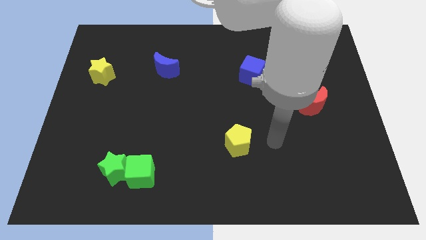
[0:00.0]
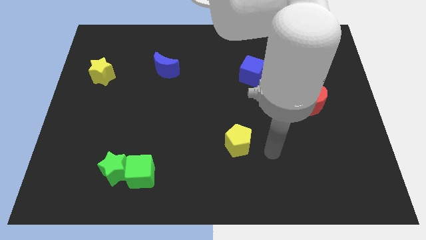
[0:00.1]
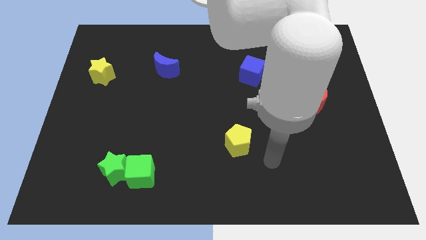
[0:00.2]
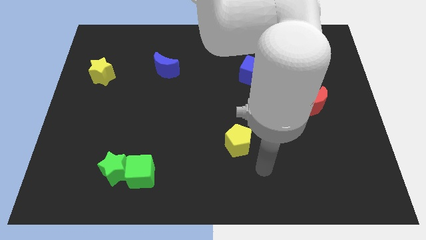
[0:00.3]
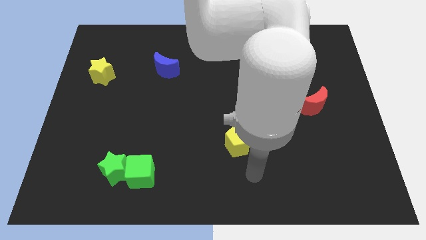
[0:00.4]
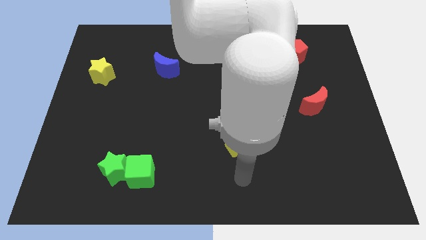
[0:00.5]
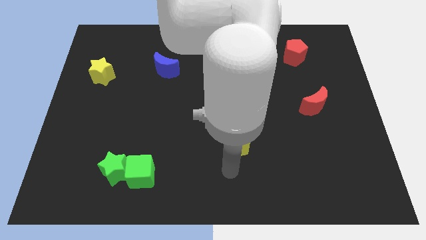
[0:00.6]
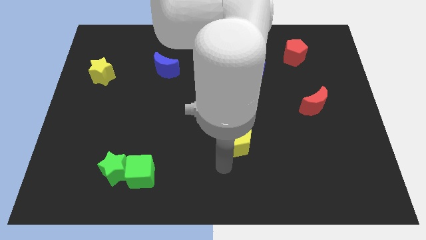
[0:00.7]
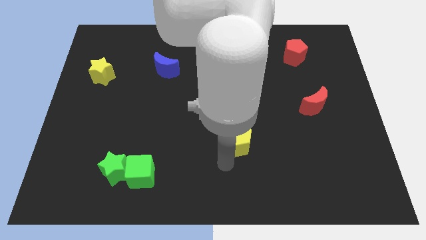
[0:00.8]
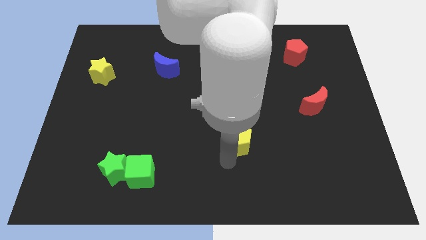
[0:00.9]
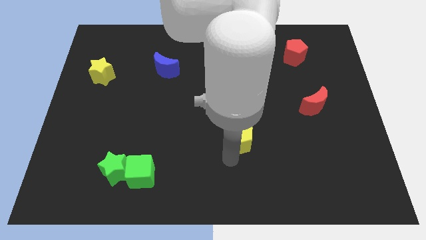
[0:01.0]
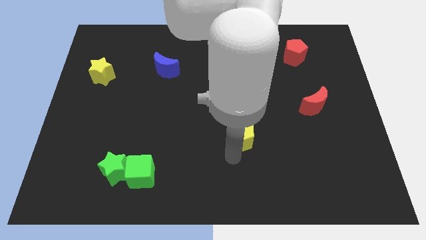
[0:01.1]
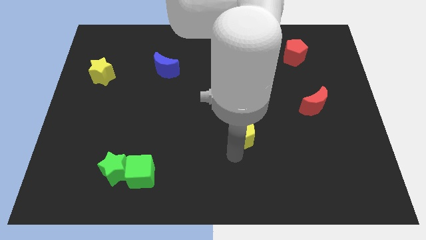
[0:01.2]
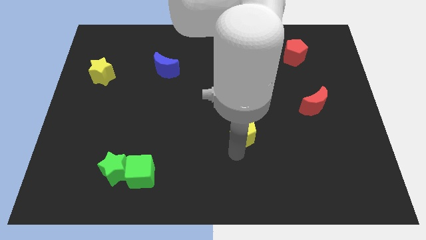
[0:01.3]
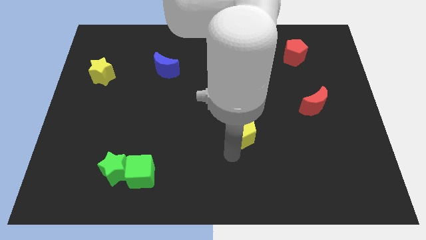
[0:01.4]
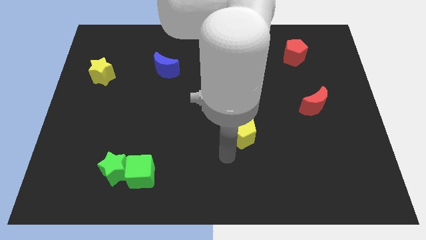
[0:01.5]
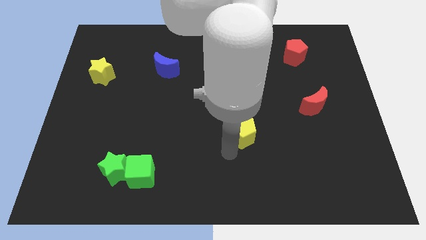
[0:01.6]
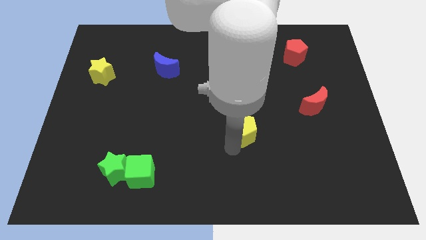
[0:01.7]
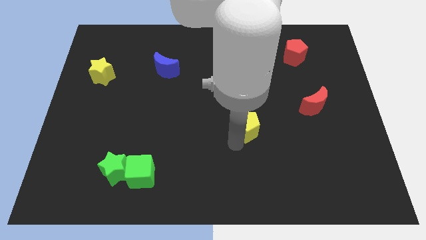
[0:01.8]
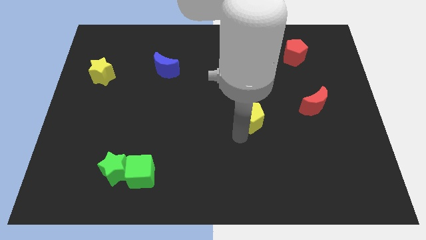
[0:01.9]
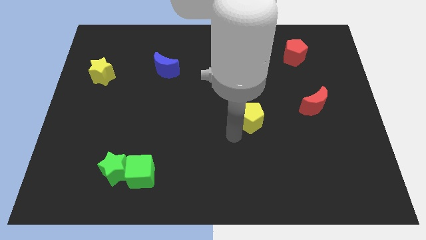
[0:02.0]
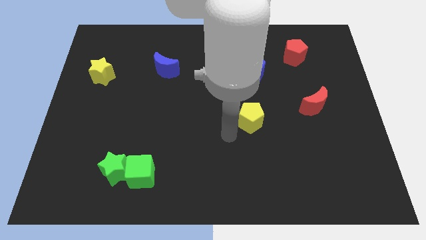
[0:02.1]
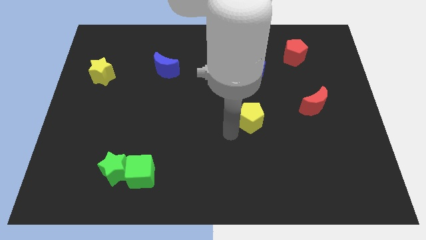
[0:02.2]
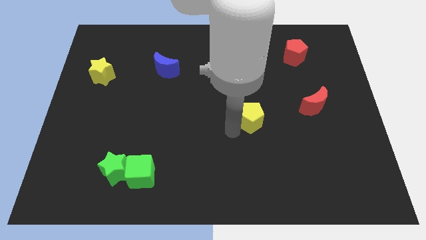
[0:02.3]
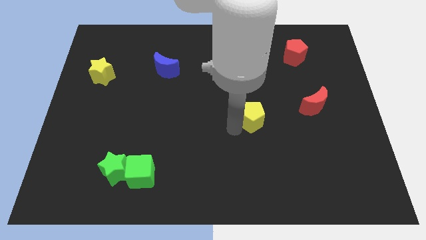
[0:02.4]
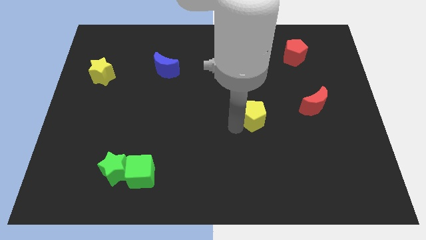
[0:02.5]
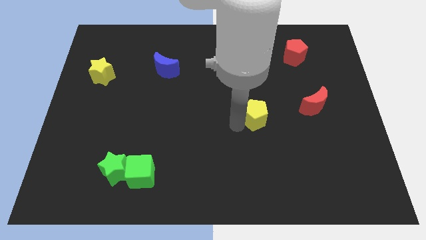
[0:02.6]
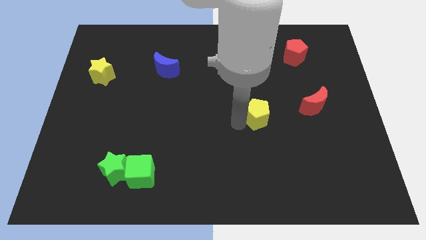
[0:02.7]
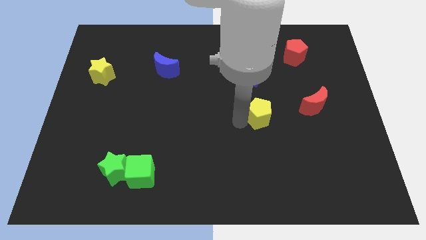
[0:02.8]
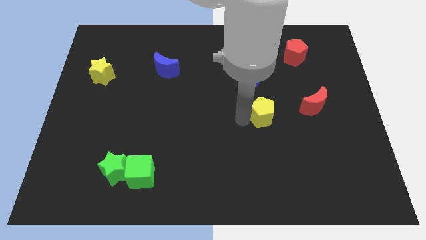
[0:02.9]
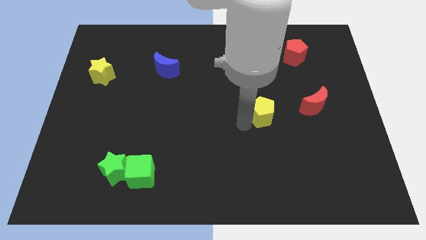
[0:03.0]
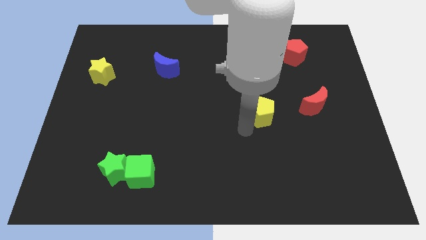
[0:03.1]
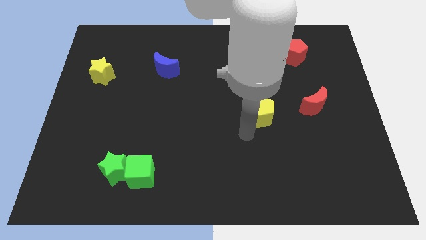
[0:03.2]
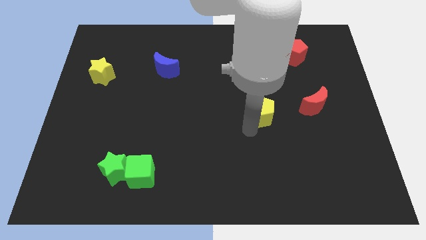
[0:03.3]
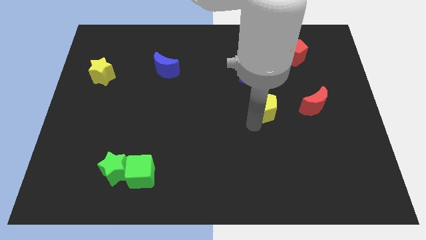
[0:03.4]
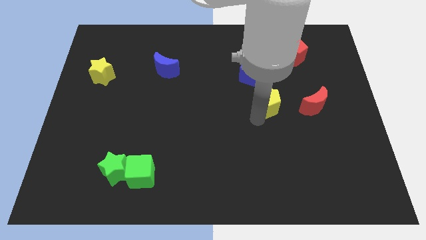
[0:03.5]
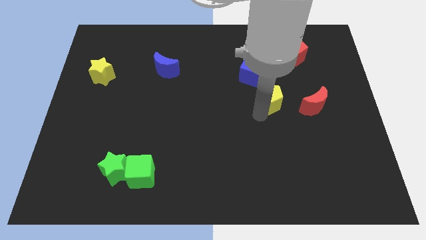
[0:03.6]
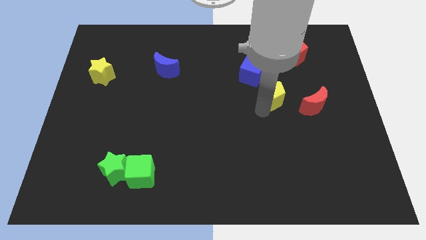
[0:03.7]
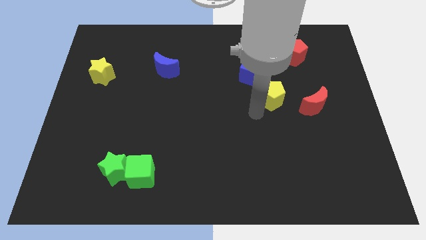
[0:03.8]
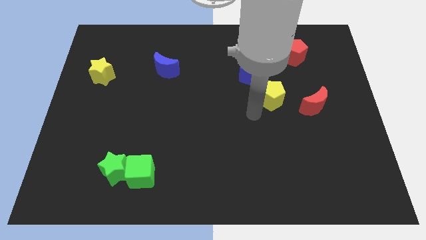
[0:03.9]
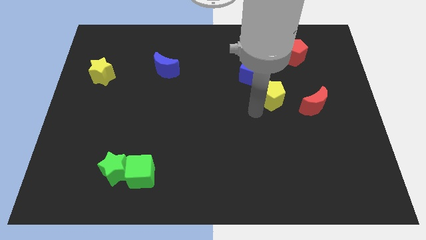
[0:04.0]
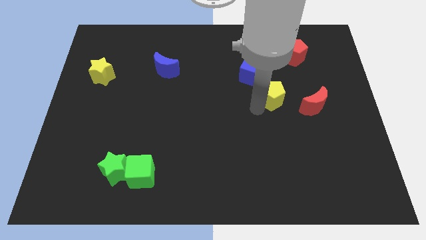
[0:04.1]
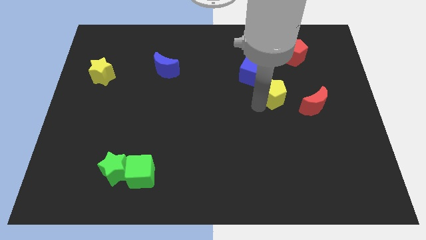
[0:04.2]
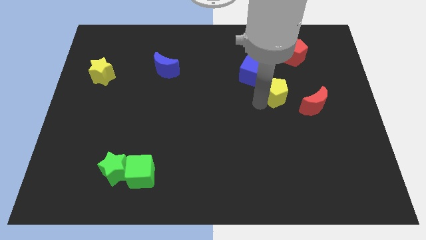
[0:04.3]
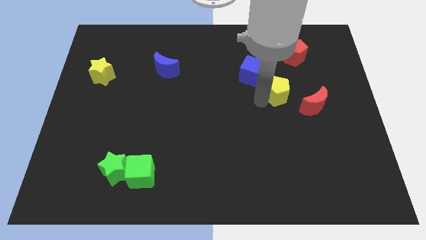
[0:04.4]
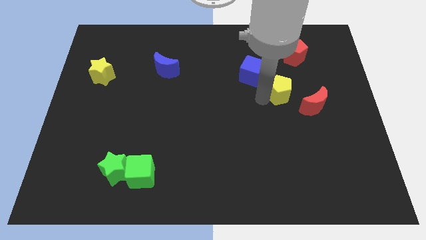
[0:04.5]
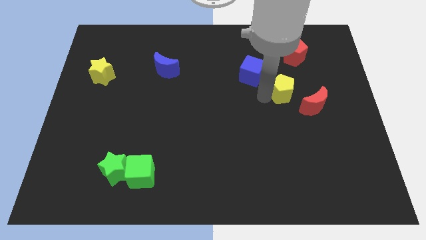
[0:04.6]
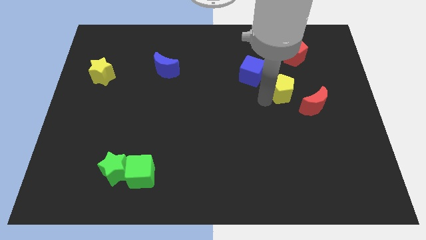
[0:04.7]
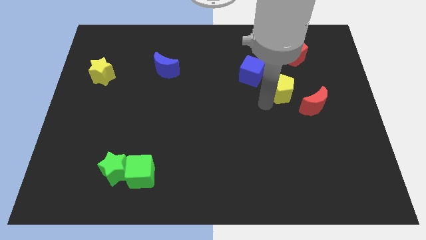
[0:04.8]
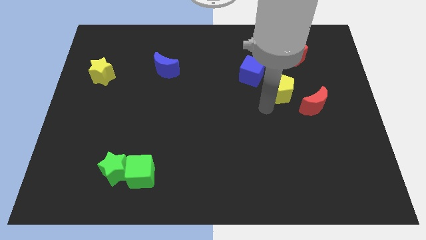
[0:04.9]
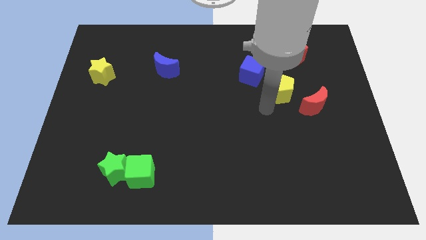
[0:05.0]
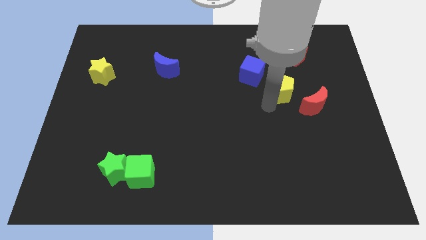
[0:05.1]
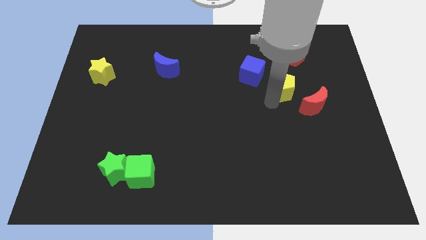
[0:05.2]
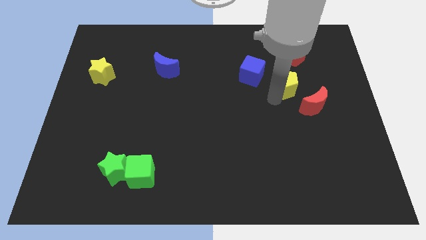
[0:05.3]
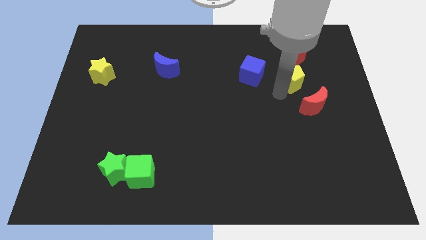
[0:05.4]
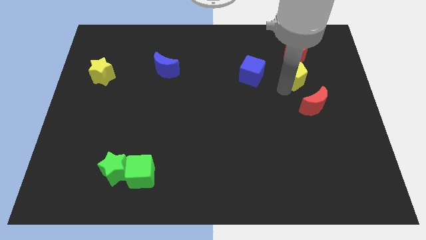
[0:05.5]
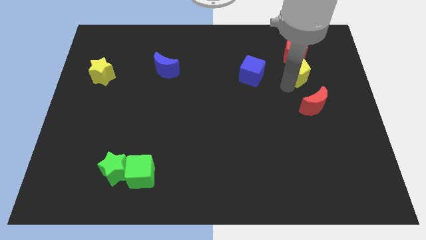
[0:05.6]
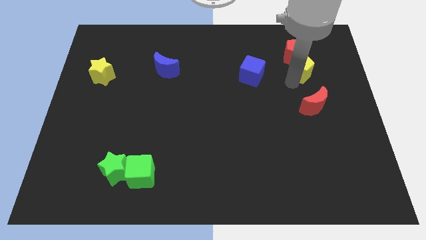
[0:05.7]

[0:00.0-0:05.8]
move the yellow pentagon next to the red pentagon

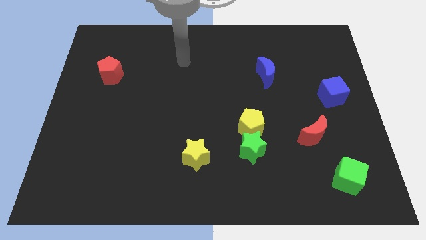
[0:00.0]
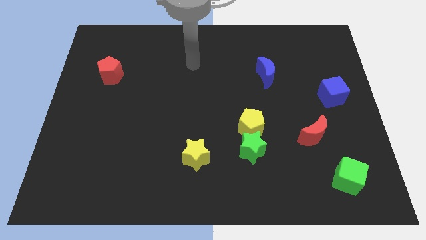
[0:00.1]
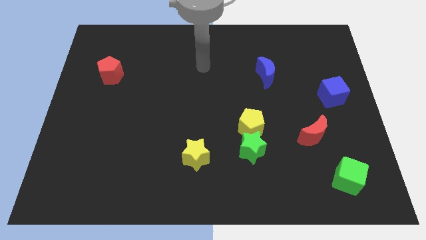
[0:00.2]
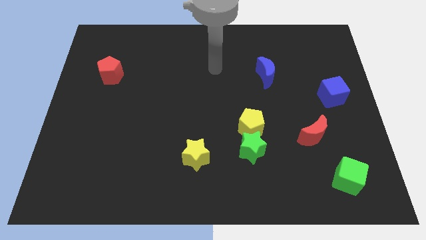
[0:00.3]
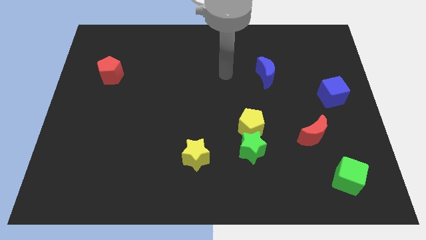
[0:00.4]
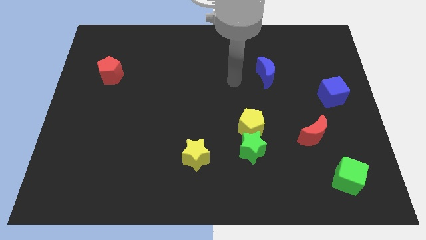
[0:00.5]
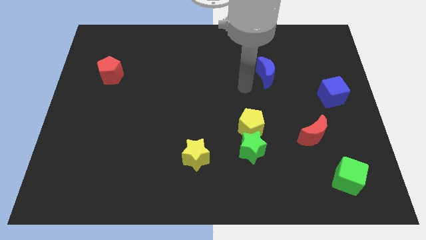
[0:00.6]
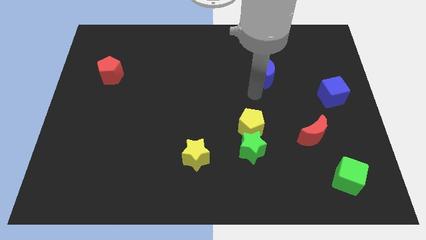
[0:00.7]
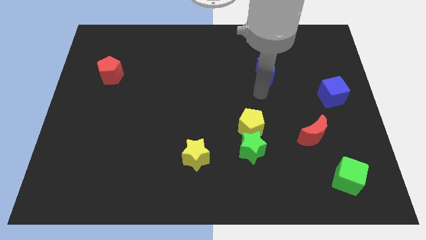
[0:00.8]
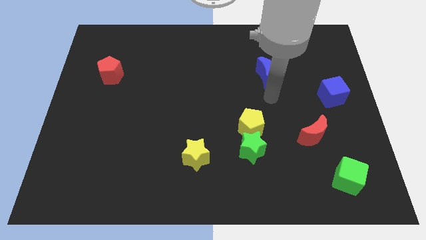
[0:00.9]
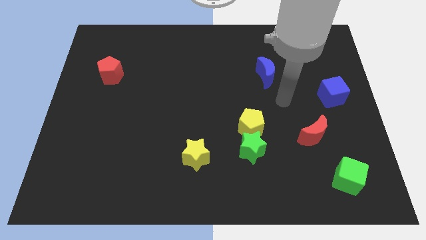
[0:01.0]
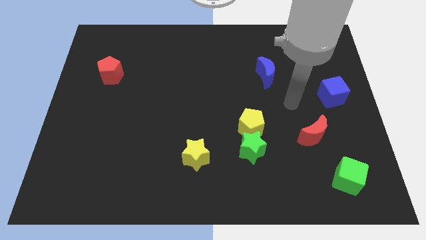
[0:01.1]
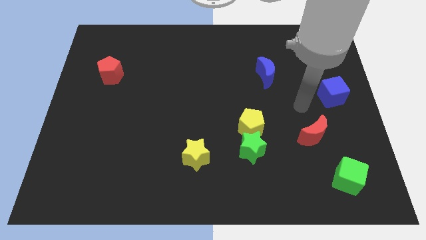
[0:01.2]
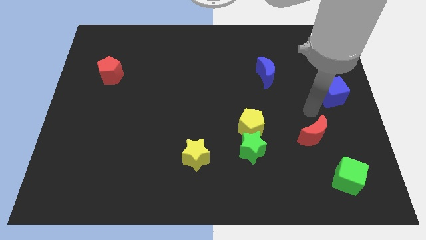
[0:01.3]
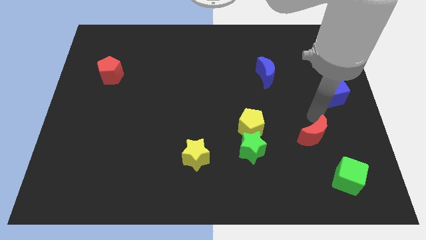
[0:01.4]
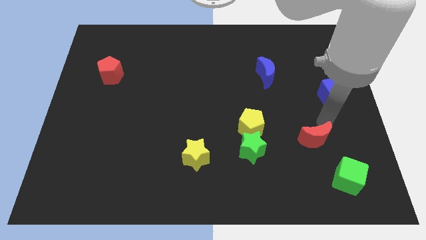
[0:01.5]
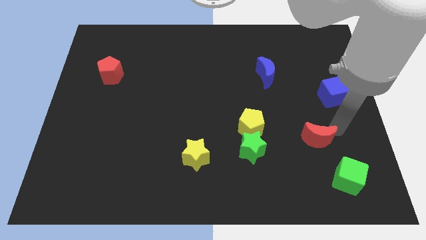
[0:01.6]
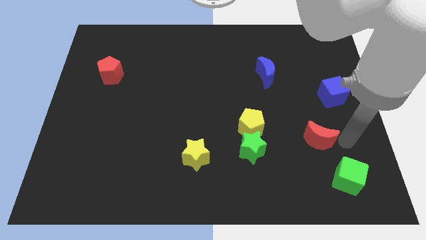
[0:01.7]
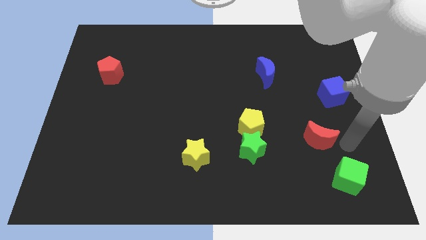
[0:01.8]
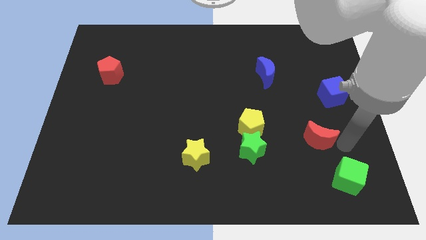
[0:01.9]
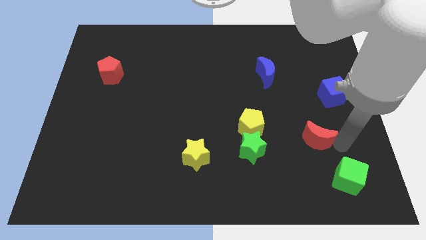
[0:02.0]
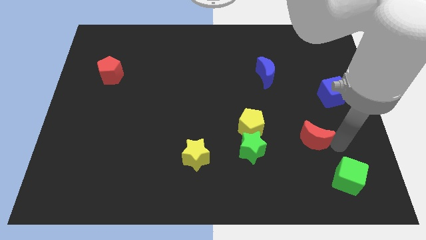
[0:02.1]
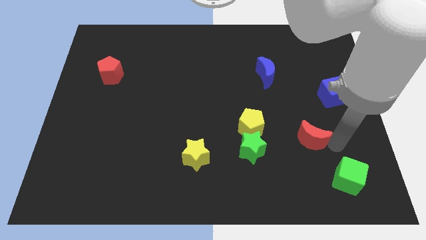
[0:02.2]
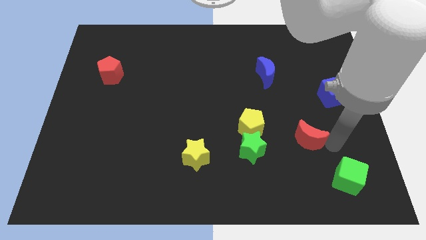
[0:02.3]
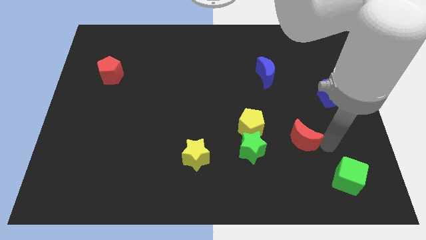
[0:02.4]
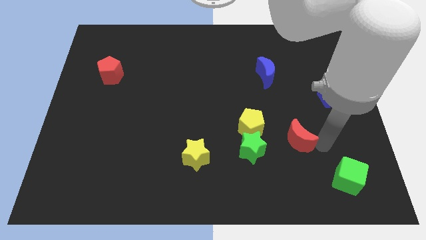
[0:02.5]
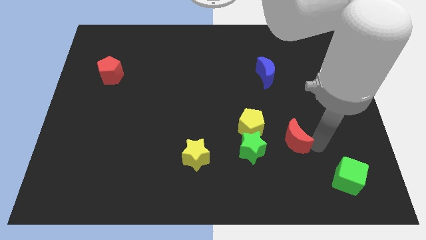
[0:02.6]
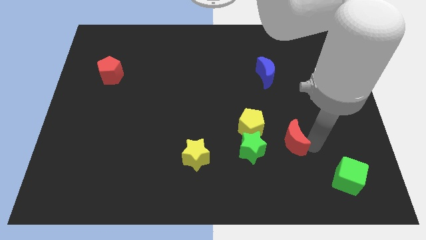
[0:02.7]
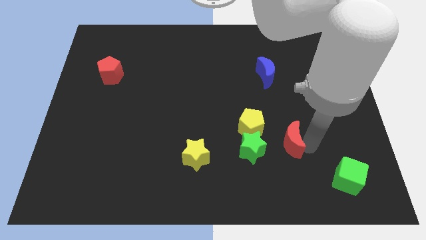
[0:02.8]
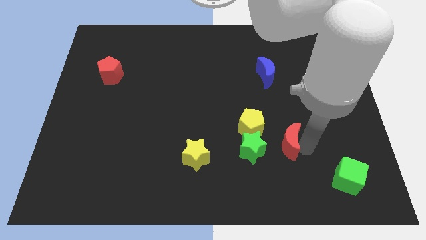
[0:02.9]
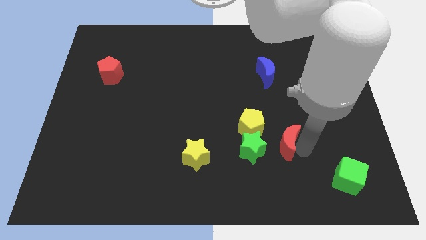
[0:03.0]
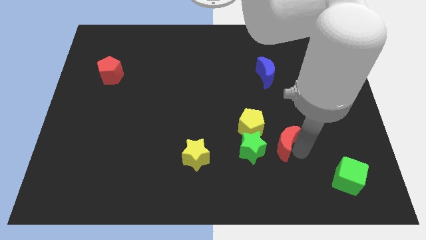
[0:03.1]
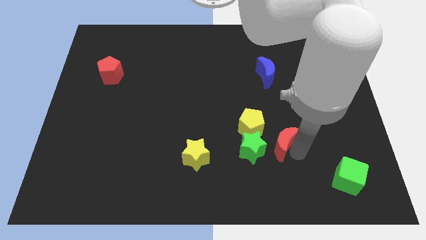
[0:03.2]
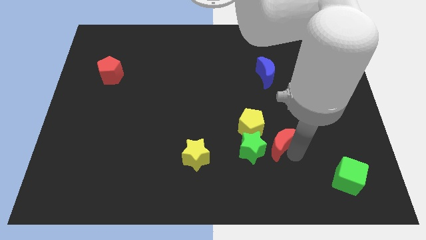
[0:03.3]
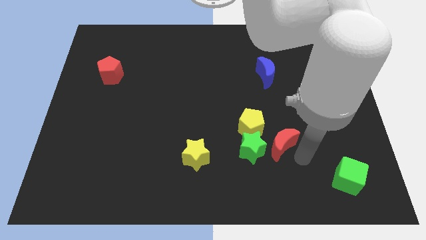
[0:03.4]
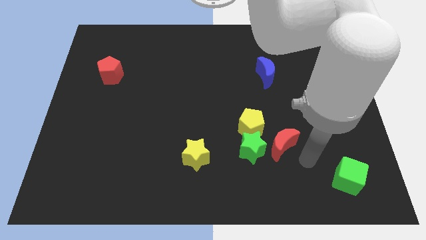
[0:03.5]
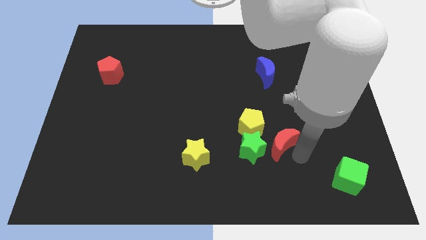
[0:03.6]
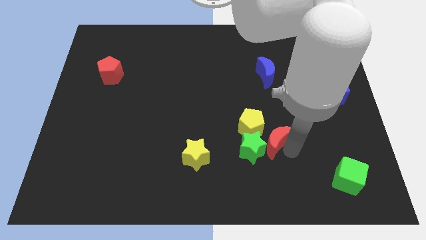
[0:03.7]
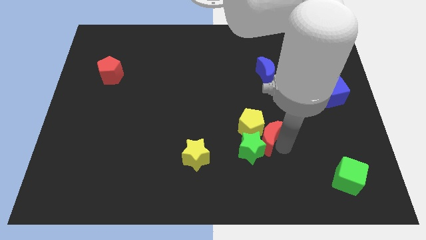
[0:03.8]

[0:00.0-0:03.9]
put the red moon next to the yellow pentagon
